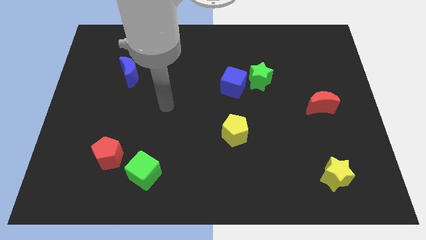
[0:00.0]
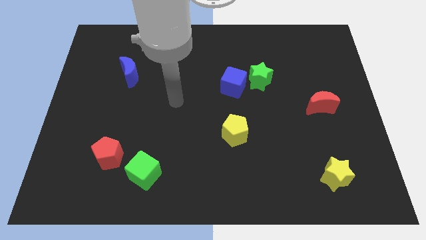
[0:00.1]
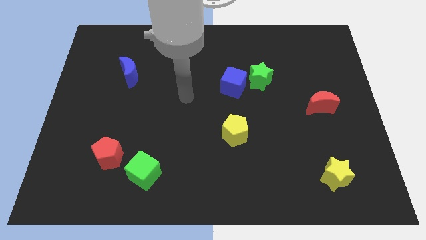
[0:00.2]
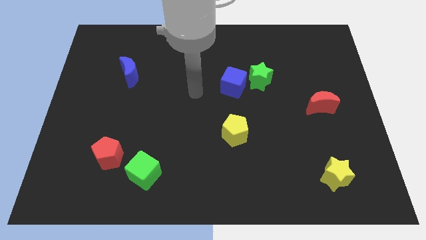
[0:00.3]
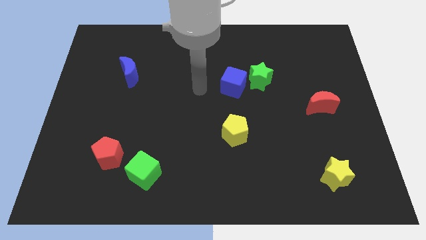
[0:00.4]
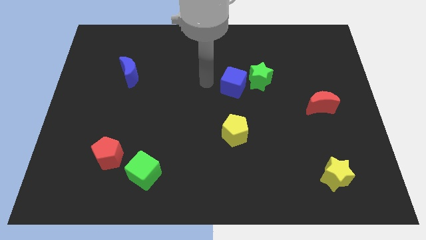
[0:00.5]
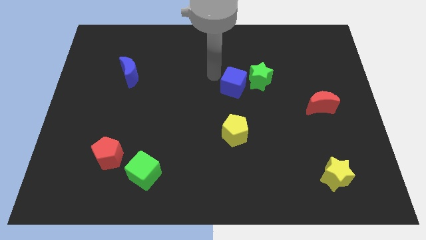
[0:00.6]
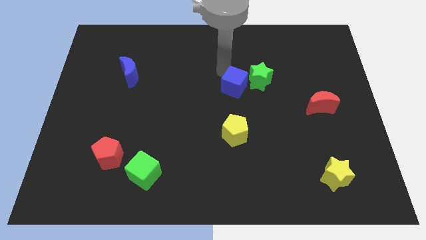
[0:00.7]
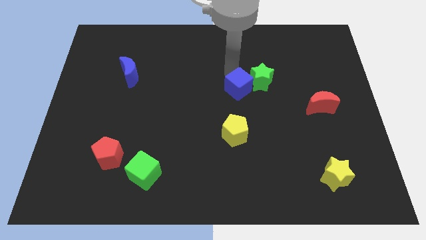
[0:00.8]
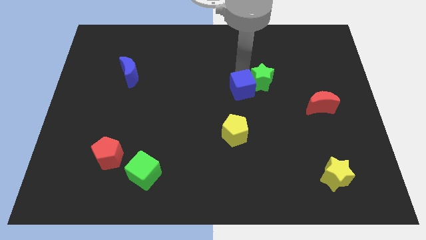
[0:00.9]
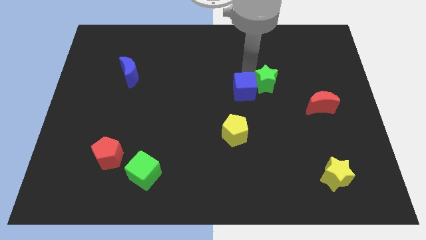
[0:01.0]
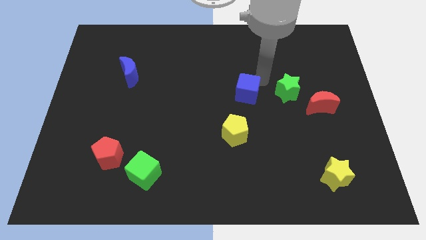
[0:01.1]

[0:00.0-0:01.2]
pull the blue cube apart from the green star

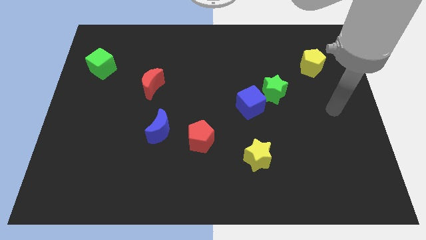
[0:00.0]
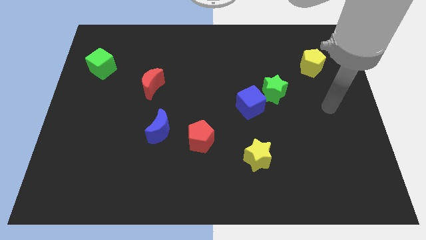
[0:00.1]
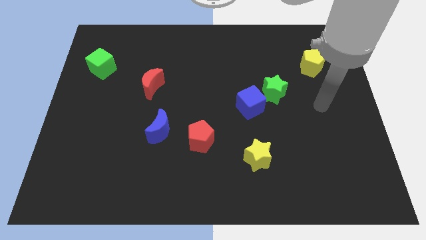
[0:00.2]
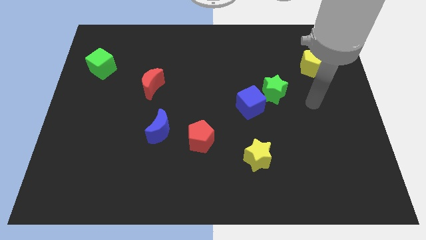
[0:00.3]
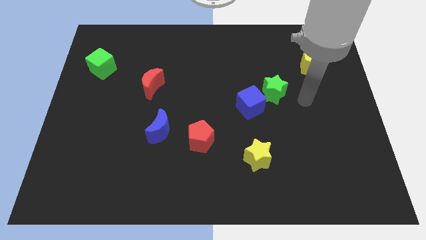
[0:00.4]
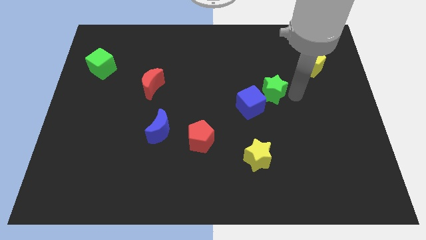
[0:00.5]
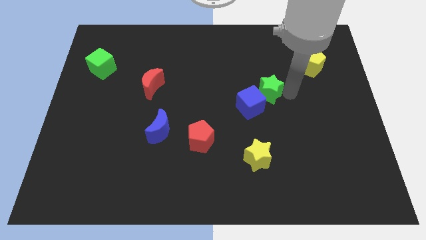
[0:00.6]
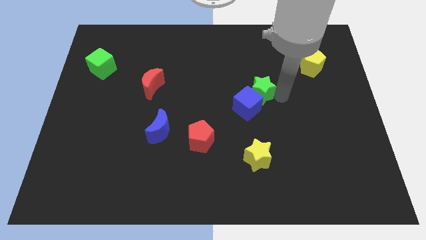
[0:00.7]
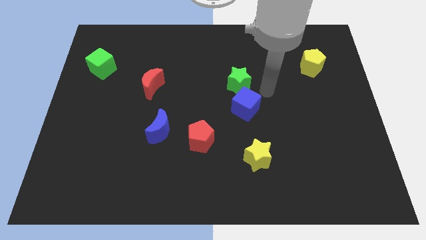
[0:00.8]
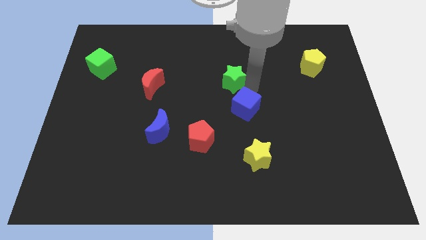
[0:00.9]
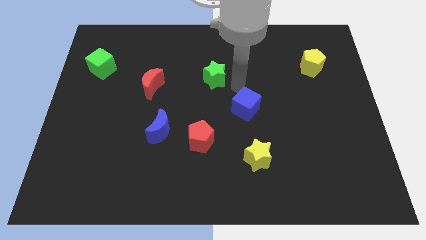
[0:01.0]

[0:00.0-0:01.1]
move the blue cube away from the green star

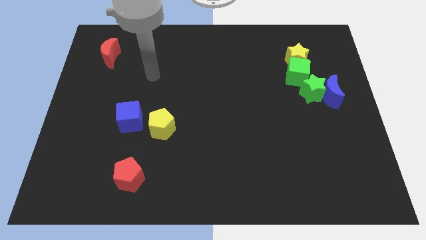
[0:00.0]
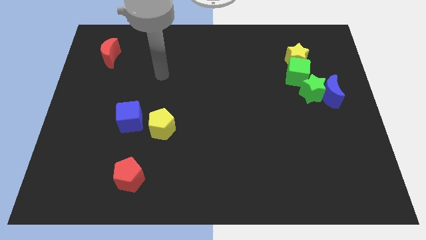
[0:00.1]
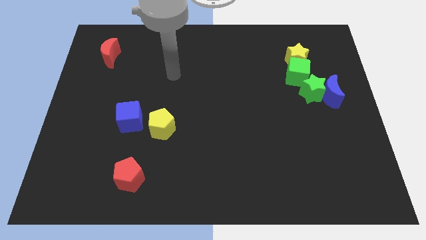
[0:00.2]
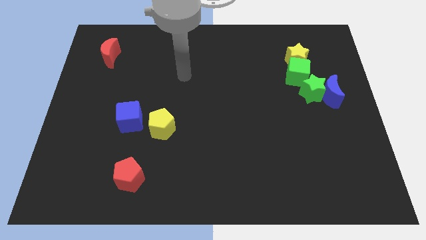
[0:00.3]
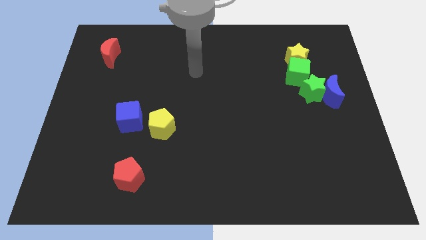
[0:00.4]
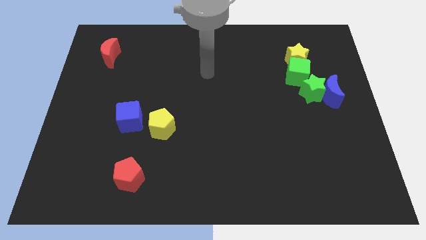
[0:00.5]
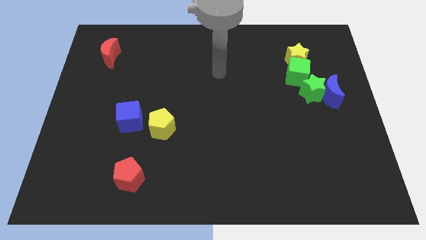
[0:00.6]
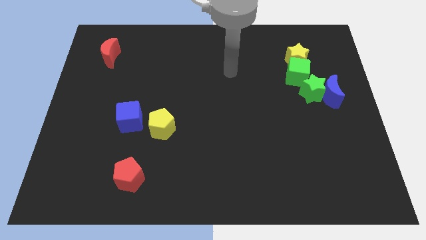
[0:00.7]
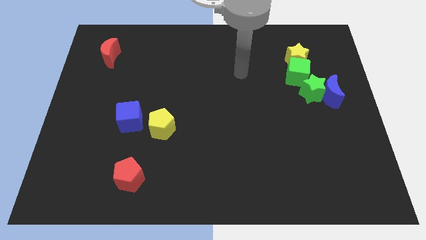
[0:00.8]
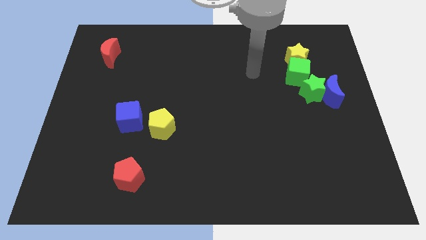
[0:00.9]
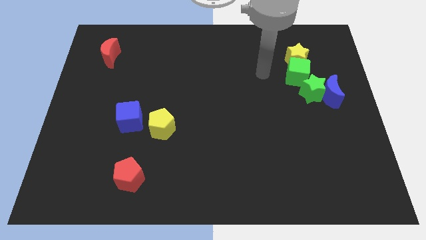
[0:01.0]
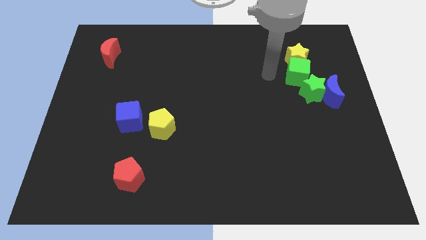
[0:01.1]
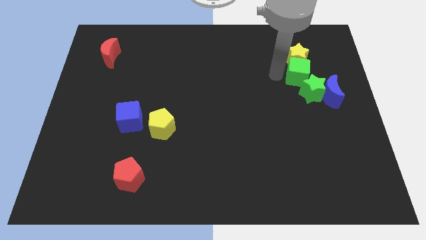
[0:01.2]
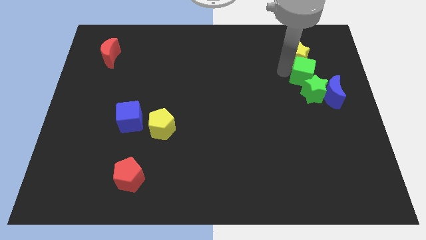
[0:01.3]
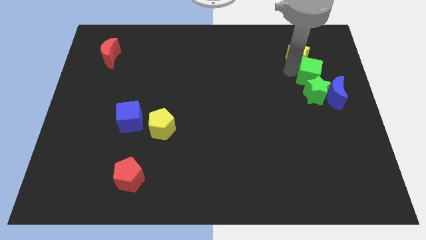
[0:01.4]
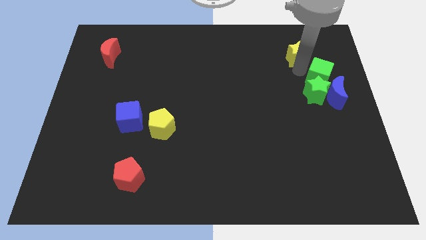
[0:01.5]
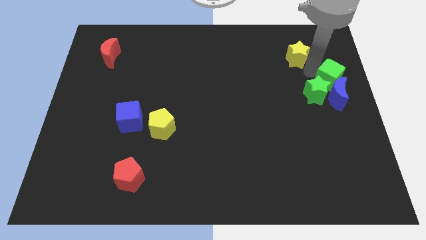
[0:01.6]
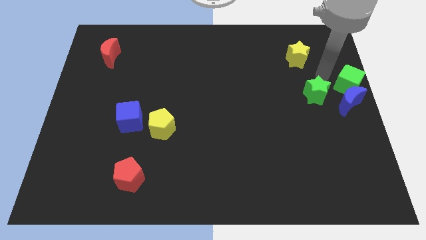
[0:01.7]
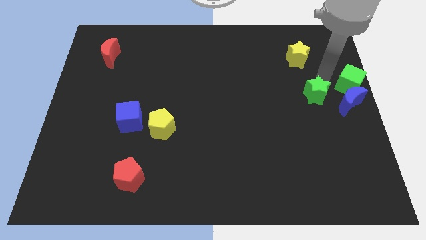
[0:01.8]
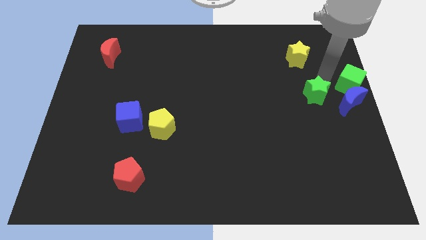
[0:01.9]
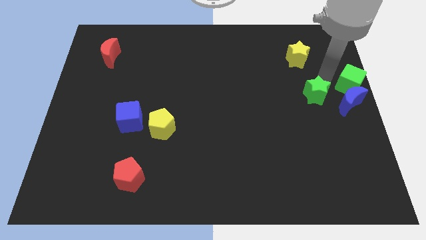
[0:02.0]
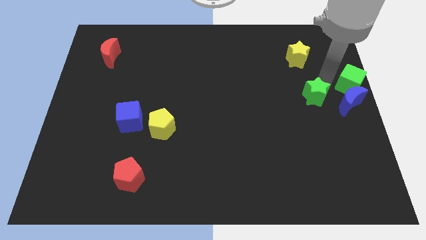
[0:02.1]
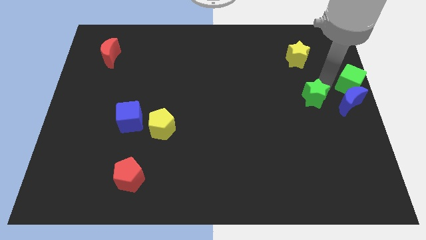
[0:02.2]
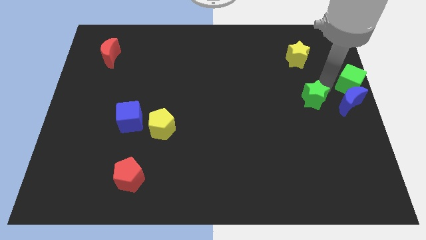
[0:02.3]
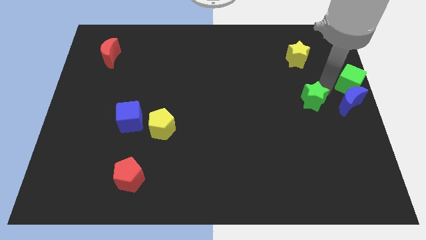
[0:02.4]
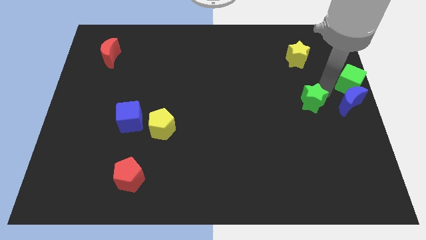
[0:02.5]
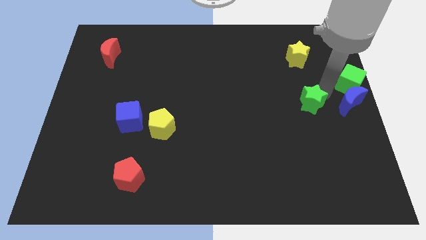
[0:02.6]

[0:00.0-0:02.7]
move the green star away from the blue moon and green cube

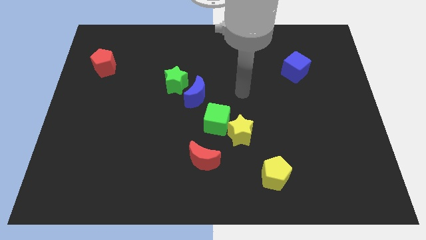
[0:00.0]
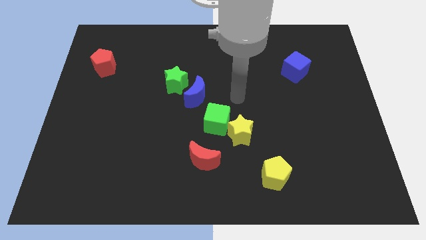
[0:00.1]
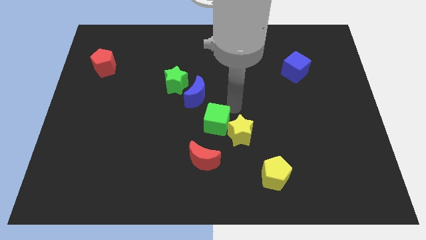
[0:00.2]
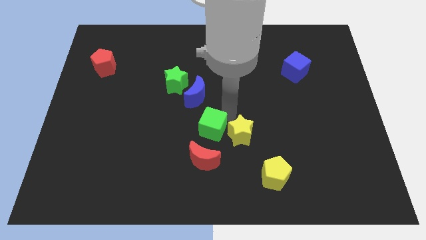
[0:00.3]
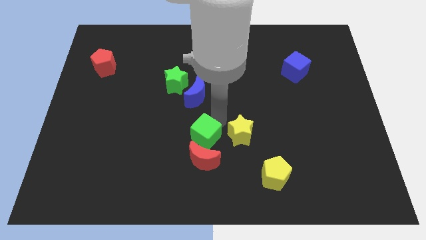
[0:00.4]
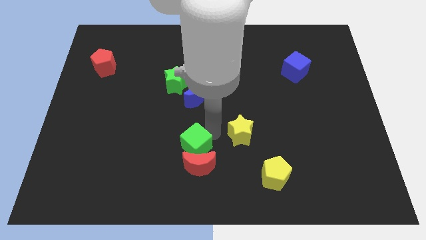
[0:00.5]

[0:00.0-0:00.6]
separate the yellow star from the green cube

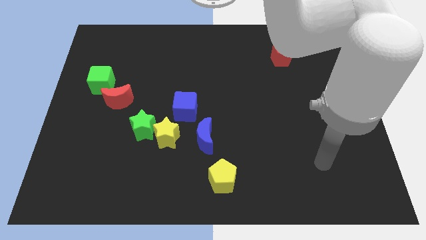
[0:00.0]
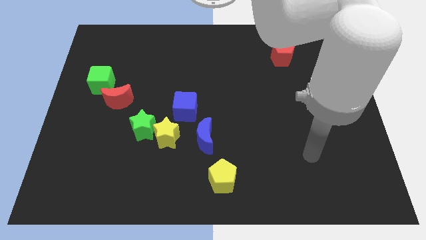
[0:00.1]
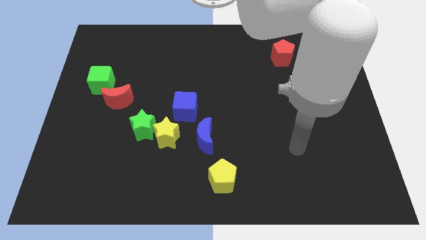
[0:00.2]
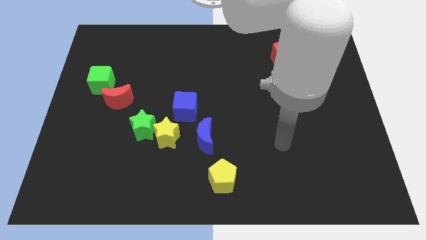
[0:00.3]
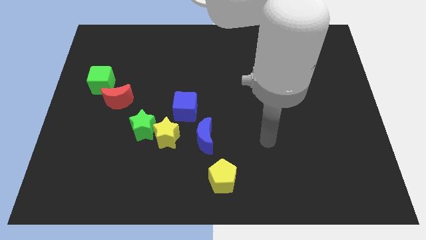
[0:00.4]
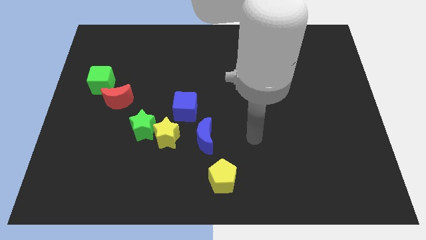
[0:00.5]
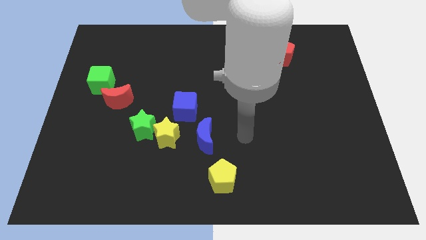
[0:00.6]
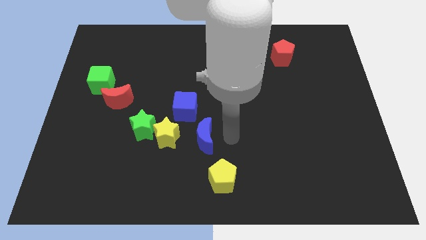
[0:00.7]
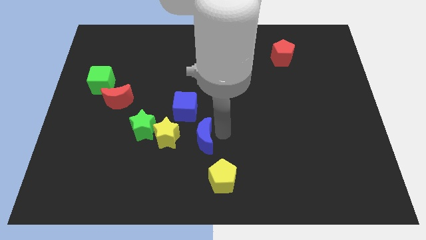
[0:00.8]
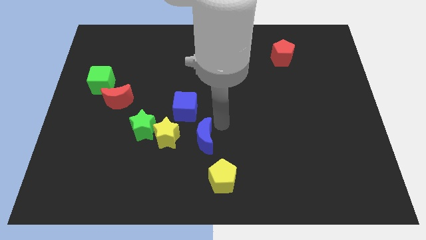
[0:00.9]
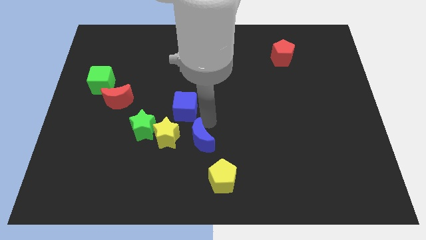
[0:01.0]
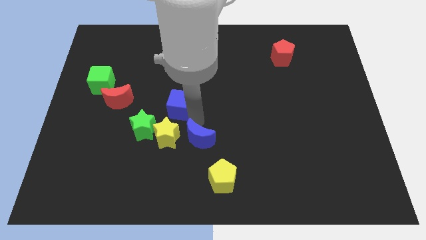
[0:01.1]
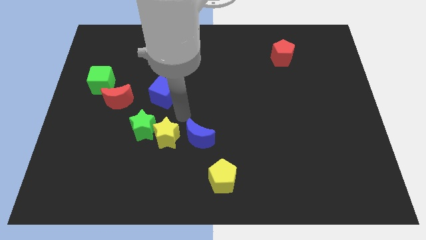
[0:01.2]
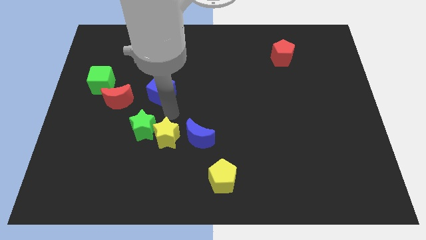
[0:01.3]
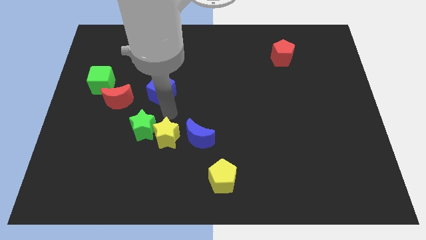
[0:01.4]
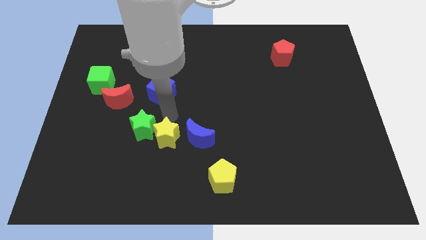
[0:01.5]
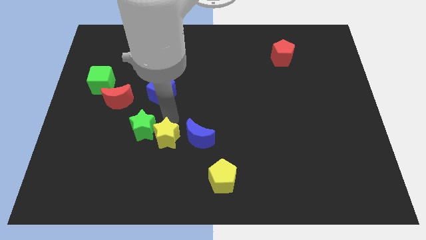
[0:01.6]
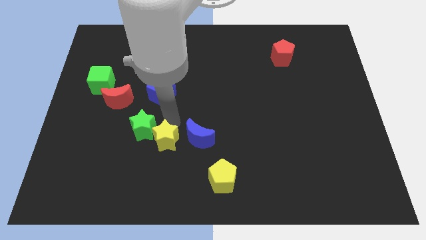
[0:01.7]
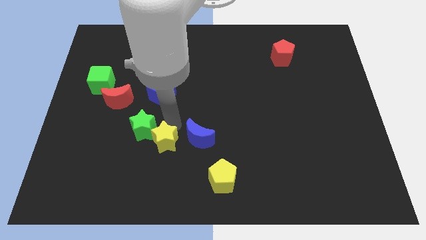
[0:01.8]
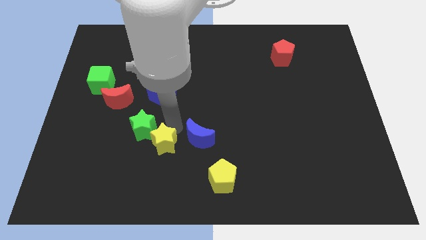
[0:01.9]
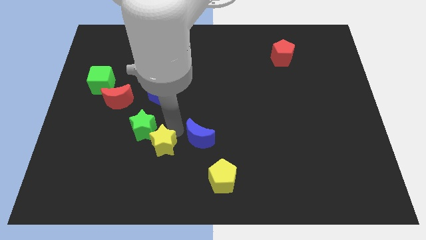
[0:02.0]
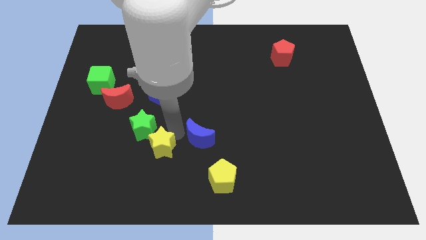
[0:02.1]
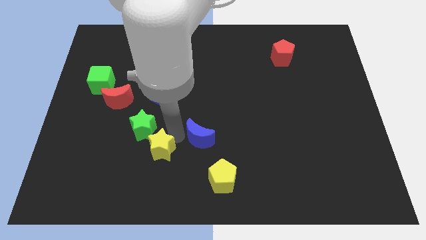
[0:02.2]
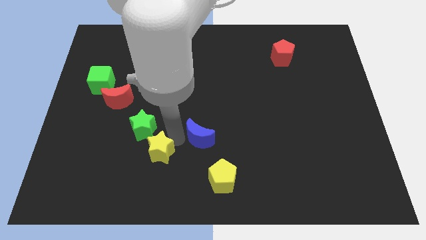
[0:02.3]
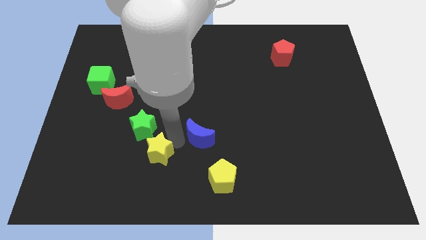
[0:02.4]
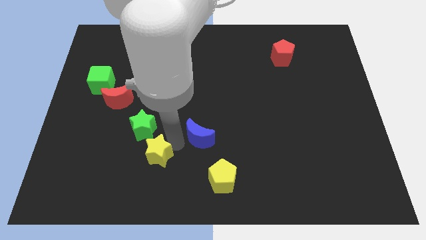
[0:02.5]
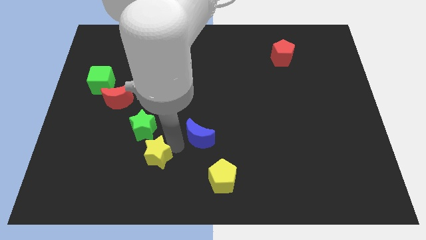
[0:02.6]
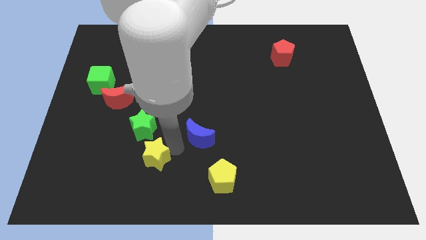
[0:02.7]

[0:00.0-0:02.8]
move the yellow star away from the clump

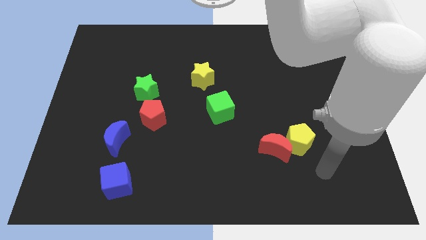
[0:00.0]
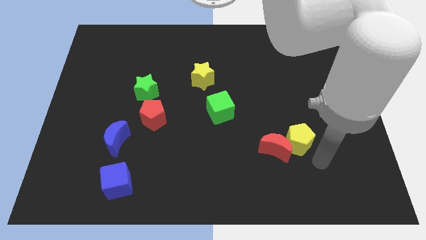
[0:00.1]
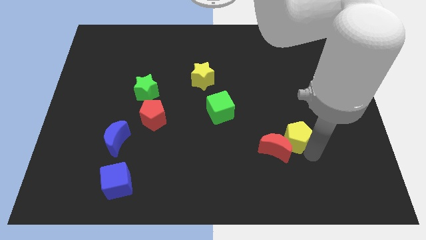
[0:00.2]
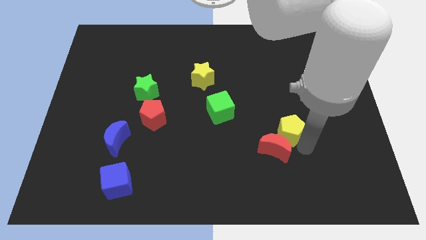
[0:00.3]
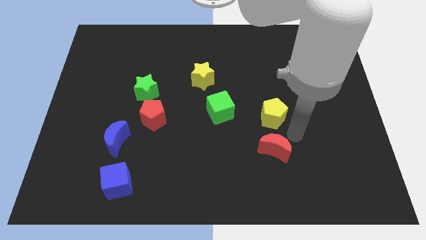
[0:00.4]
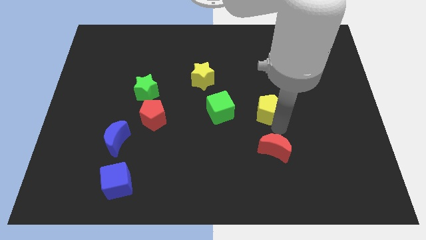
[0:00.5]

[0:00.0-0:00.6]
pull the red moon apart from the yellow pentagon

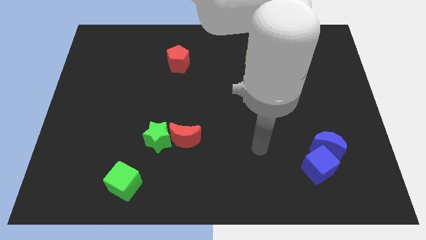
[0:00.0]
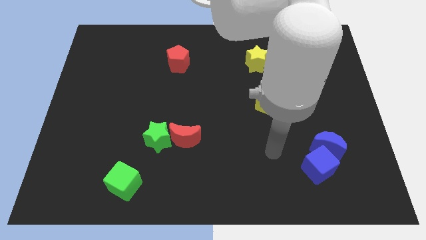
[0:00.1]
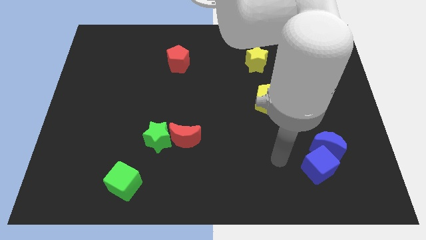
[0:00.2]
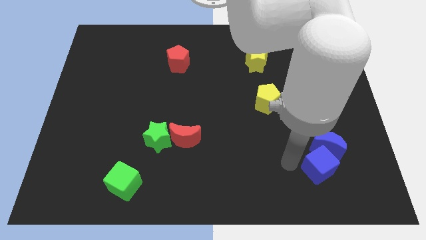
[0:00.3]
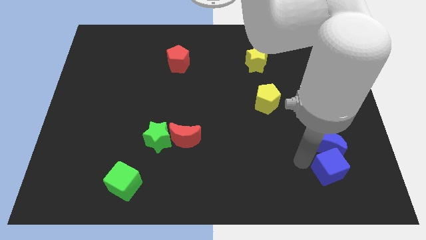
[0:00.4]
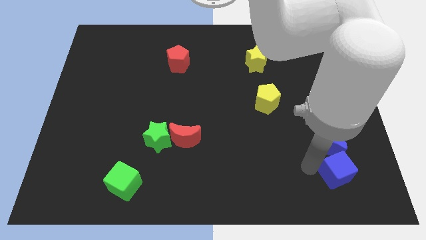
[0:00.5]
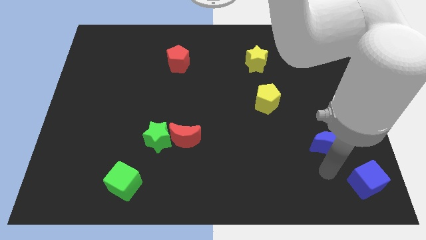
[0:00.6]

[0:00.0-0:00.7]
pull the blue moon apart from the blue cube
